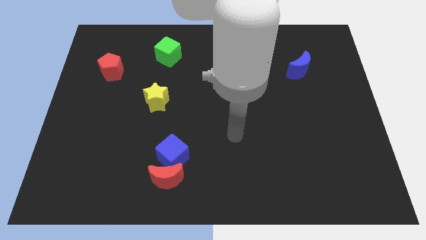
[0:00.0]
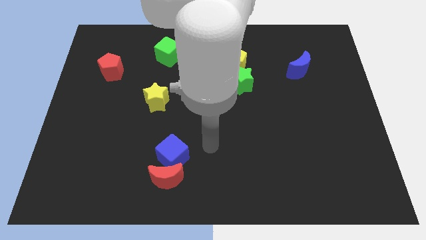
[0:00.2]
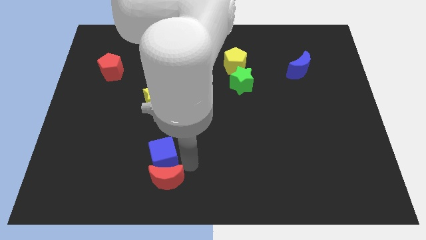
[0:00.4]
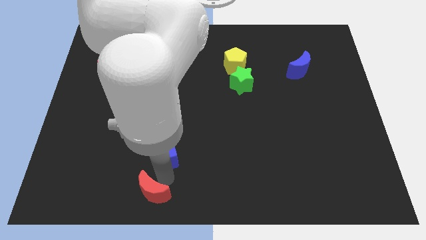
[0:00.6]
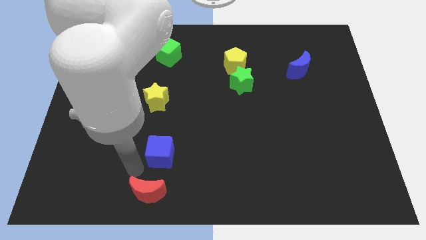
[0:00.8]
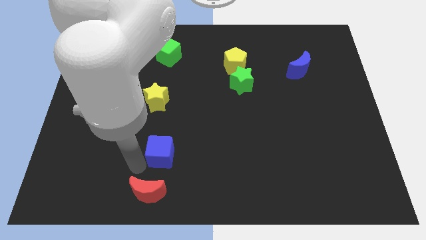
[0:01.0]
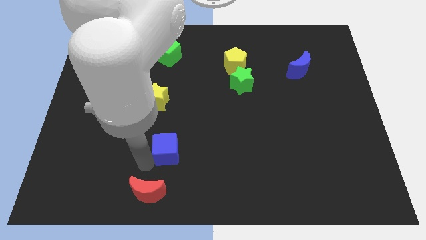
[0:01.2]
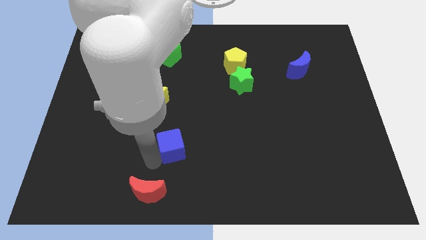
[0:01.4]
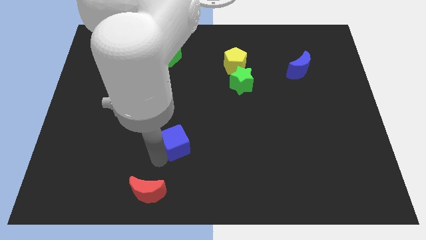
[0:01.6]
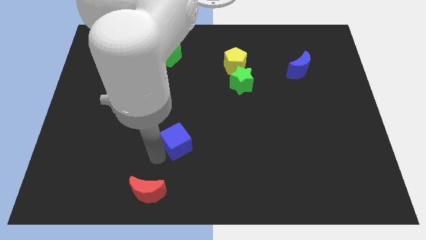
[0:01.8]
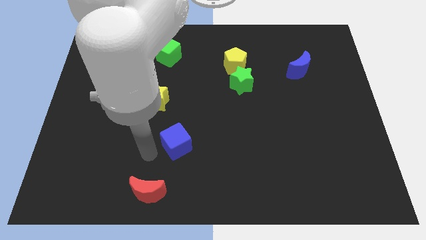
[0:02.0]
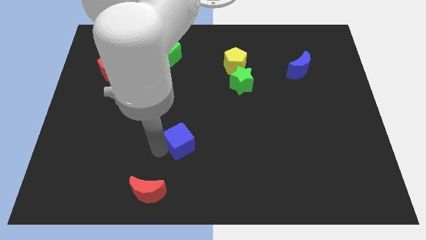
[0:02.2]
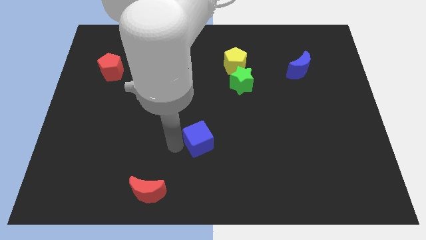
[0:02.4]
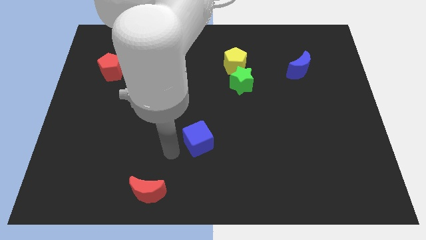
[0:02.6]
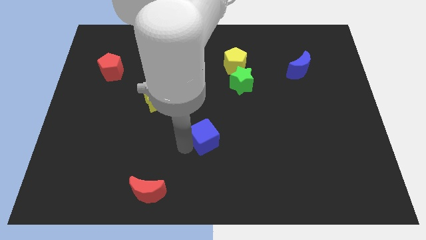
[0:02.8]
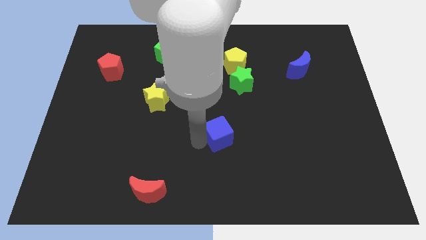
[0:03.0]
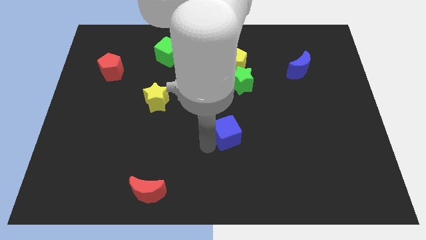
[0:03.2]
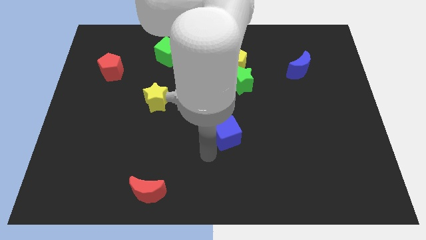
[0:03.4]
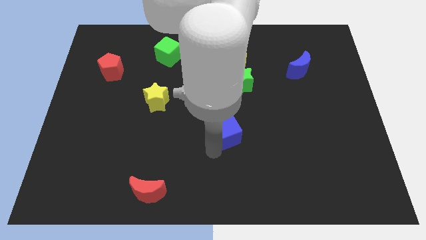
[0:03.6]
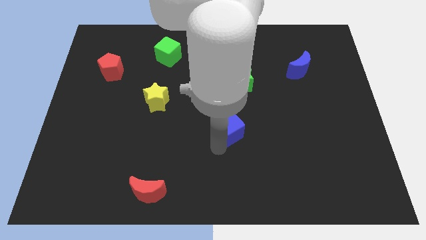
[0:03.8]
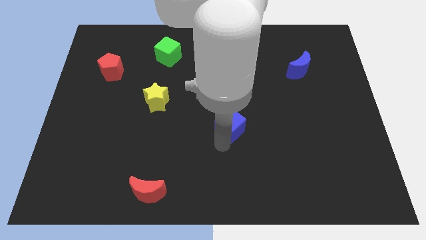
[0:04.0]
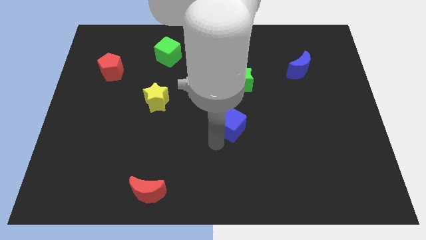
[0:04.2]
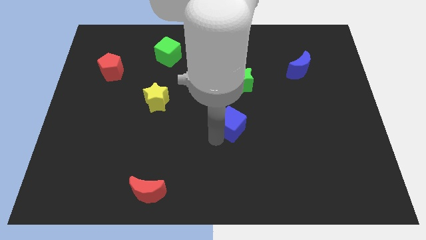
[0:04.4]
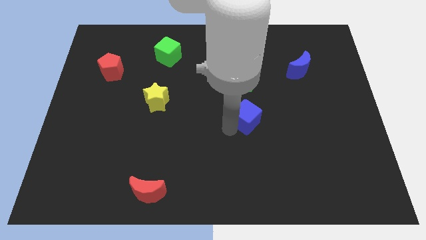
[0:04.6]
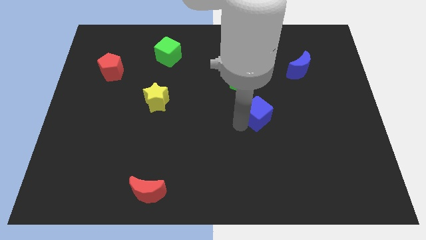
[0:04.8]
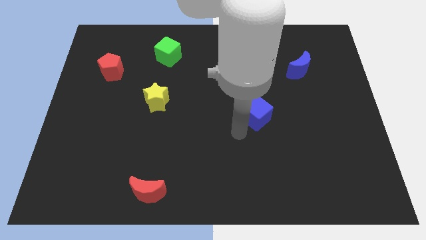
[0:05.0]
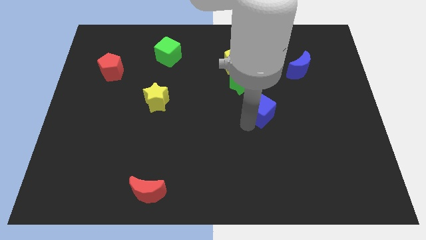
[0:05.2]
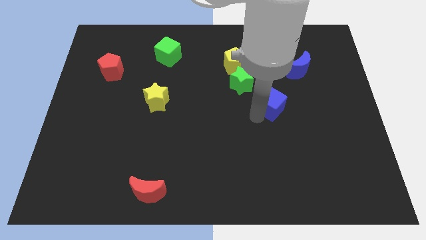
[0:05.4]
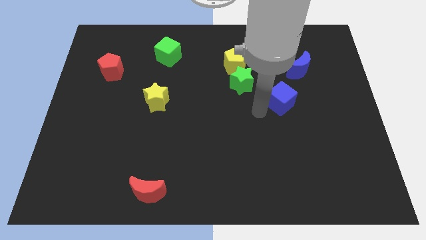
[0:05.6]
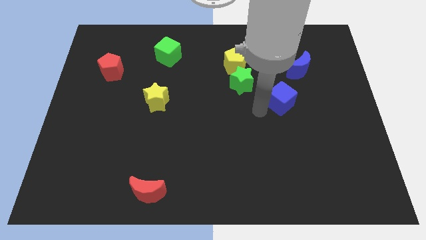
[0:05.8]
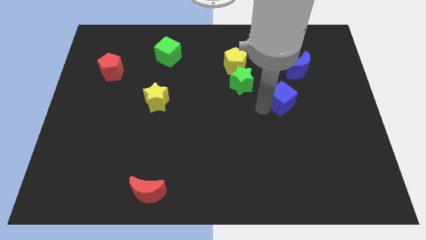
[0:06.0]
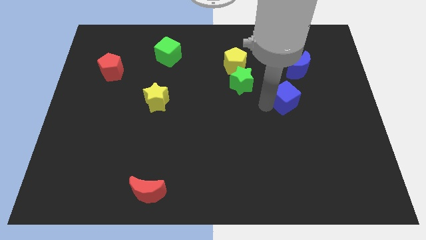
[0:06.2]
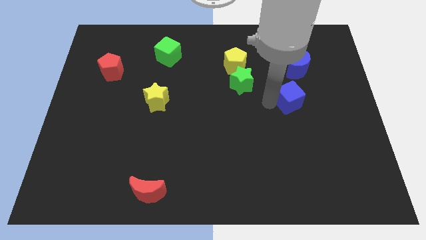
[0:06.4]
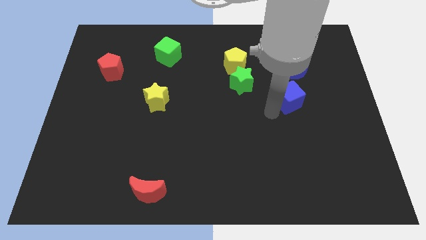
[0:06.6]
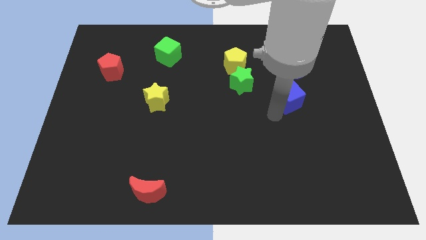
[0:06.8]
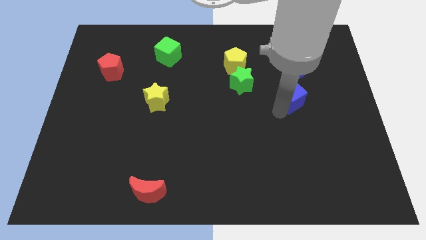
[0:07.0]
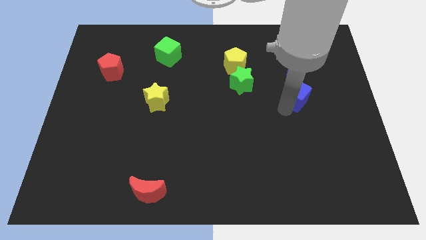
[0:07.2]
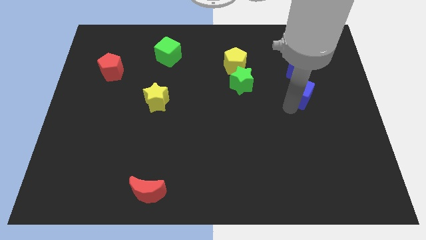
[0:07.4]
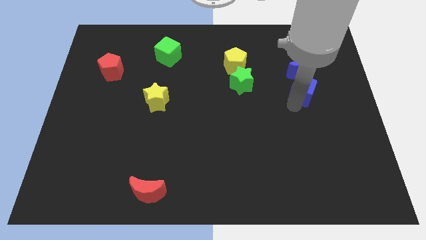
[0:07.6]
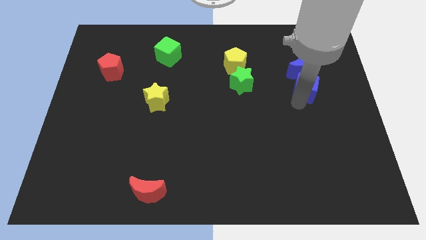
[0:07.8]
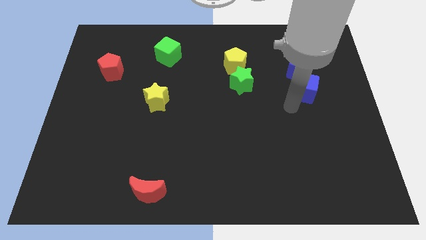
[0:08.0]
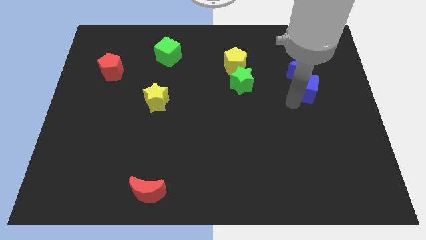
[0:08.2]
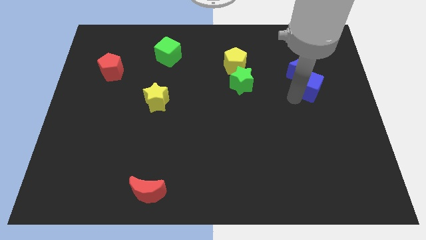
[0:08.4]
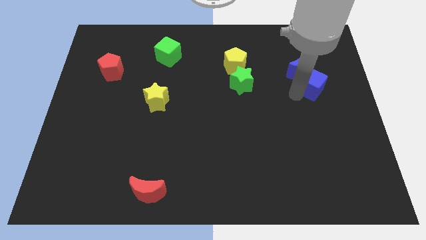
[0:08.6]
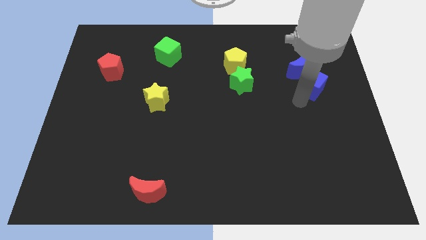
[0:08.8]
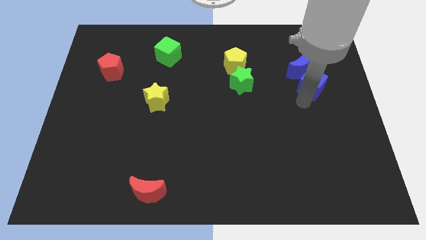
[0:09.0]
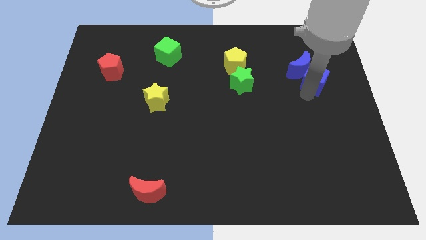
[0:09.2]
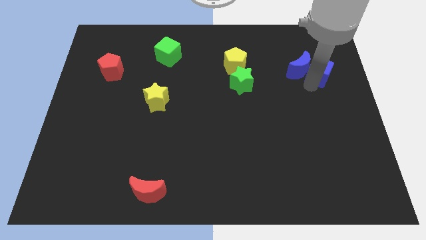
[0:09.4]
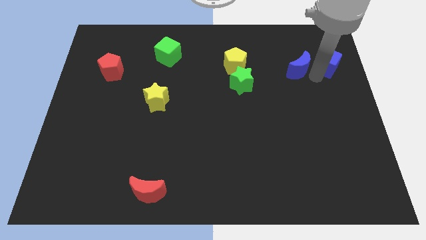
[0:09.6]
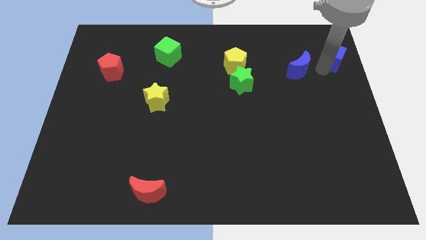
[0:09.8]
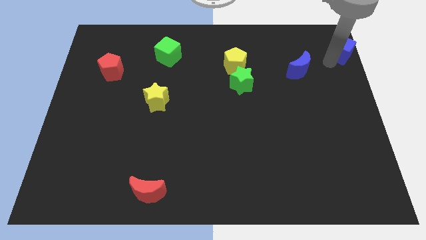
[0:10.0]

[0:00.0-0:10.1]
slide the blue cube to the top right corner

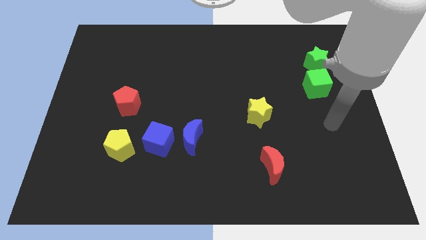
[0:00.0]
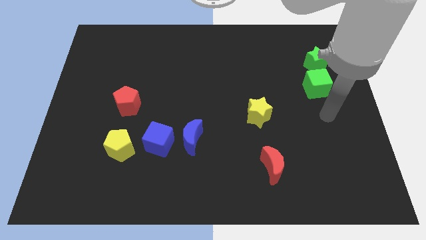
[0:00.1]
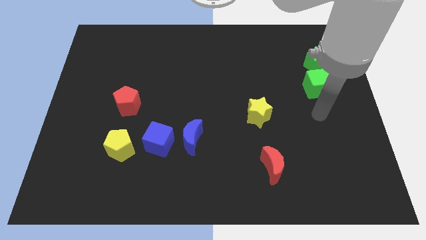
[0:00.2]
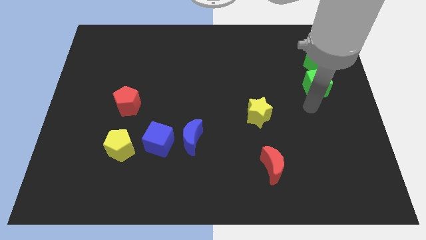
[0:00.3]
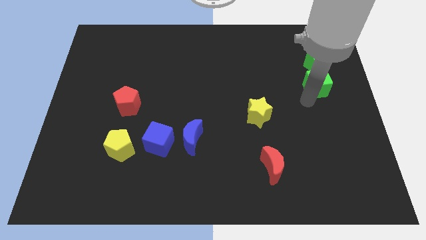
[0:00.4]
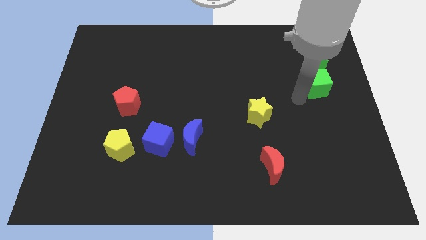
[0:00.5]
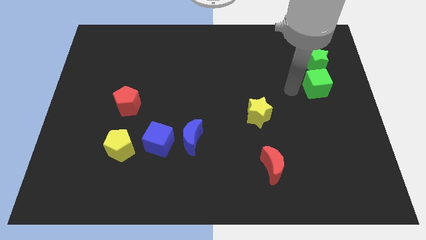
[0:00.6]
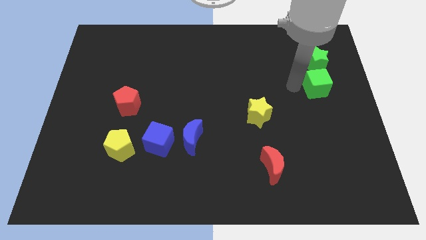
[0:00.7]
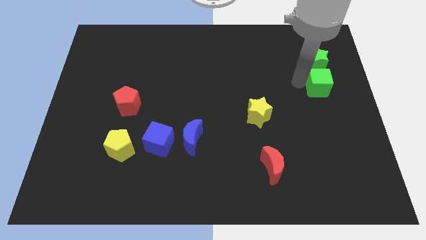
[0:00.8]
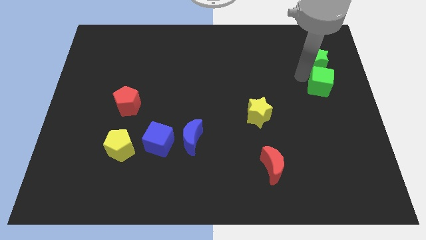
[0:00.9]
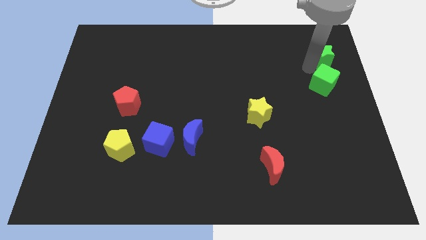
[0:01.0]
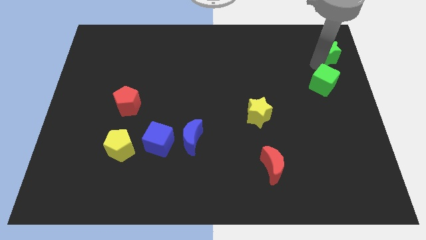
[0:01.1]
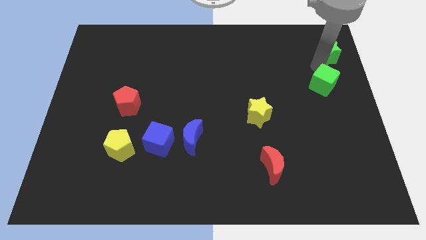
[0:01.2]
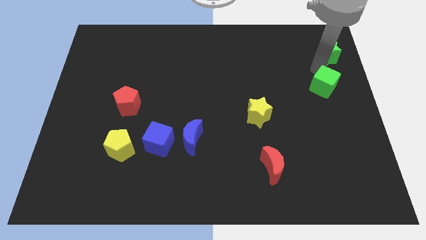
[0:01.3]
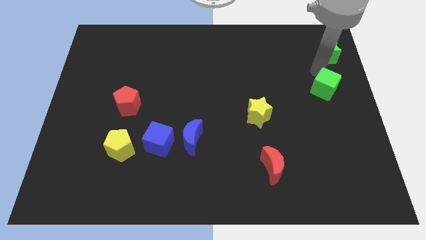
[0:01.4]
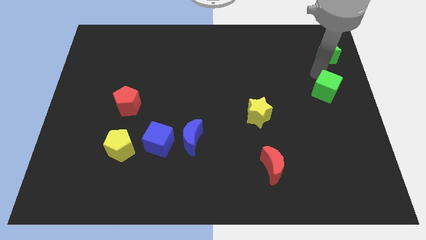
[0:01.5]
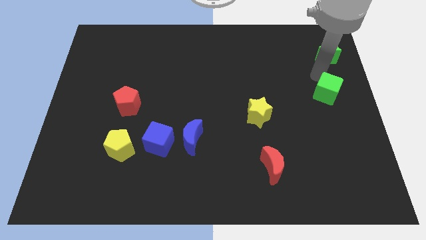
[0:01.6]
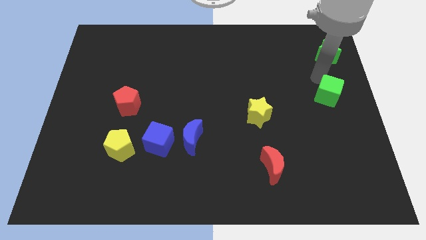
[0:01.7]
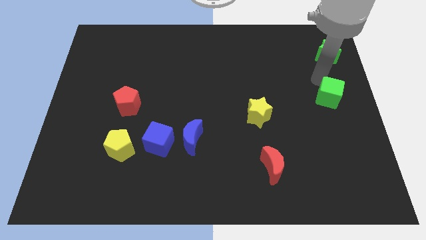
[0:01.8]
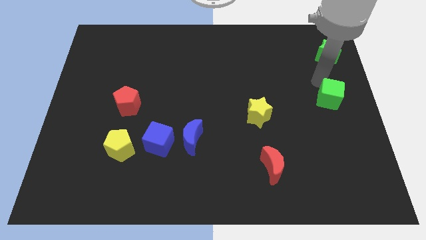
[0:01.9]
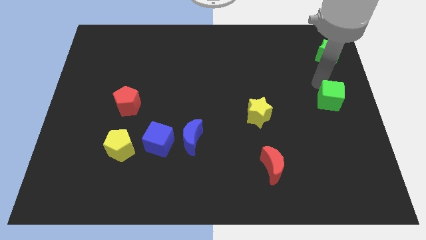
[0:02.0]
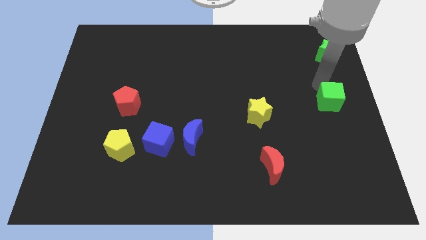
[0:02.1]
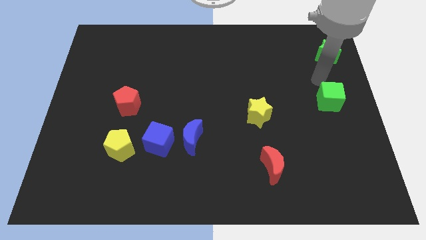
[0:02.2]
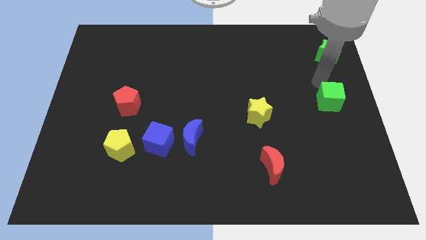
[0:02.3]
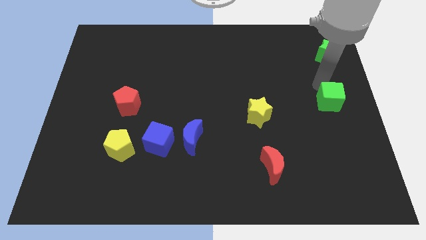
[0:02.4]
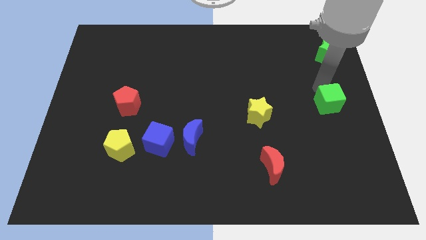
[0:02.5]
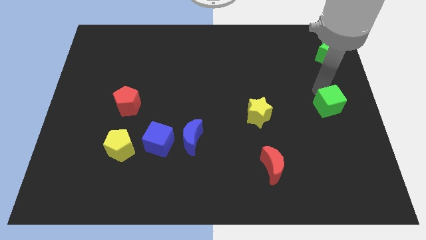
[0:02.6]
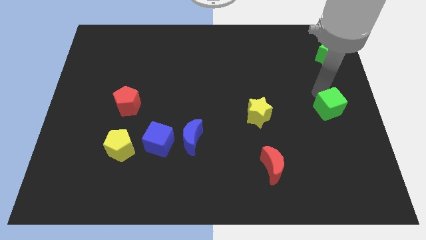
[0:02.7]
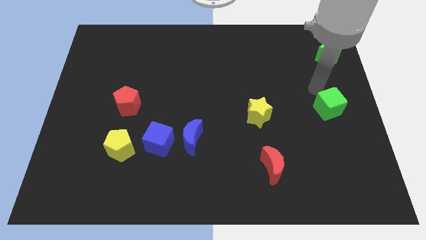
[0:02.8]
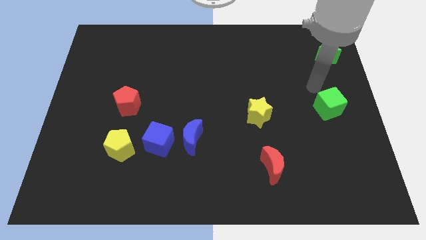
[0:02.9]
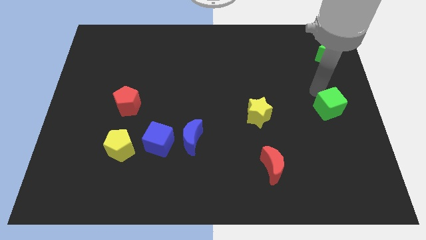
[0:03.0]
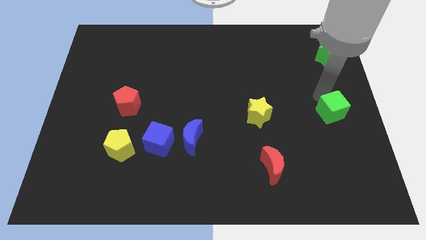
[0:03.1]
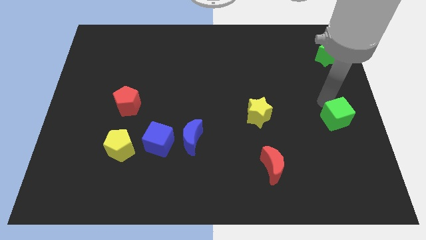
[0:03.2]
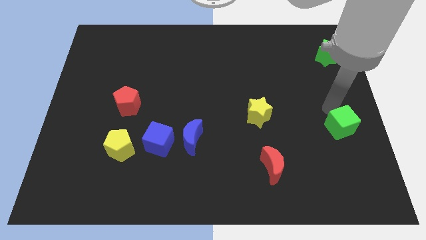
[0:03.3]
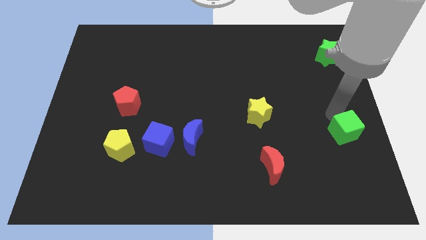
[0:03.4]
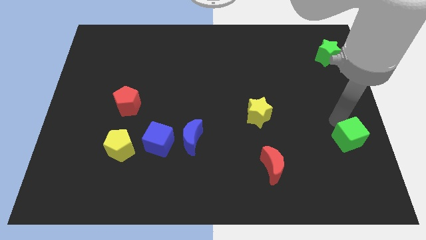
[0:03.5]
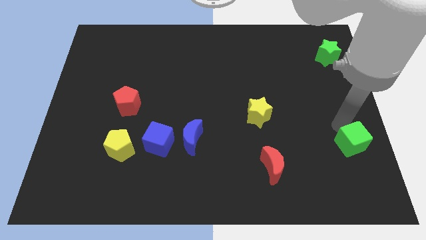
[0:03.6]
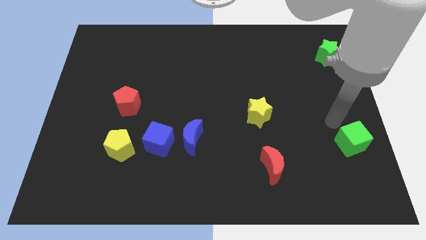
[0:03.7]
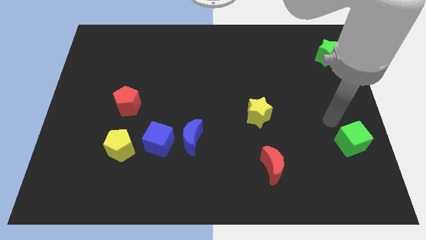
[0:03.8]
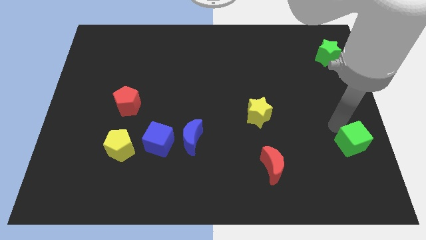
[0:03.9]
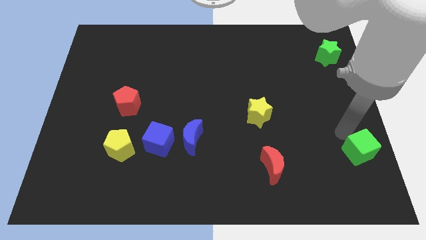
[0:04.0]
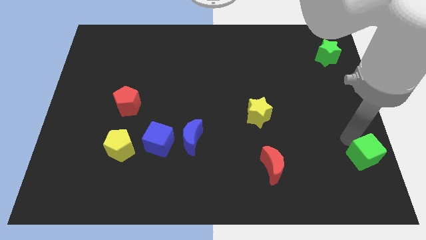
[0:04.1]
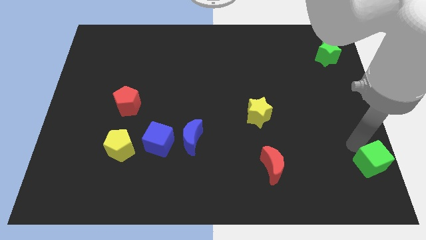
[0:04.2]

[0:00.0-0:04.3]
put the green cube to the bottom right of the board
